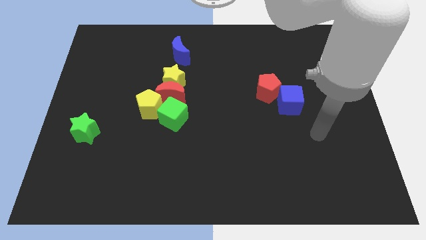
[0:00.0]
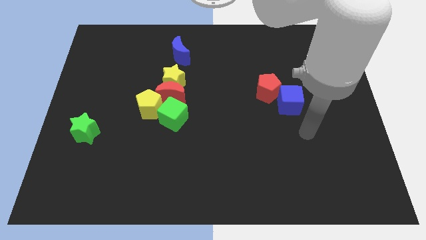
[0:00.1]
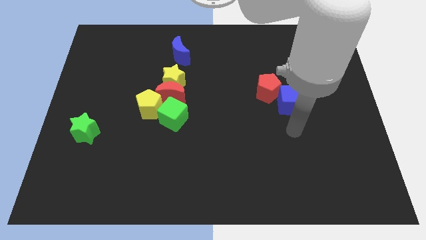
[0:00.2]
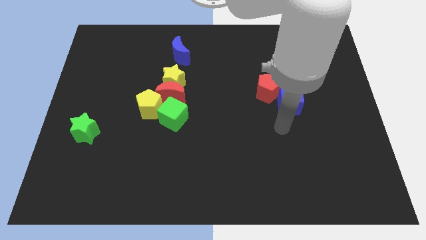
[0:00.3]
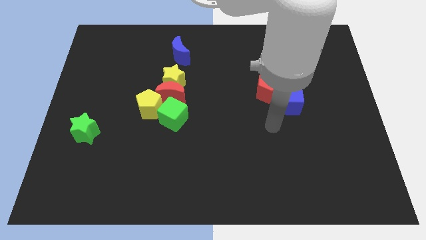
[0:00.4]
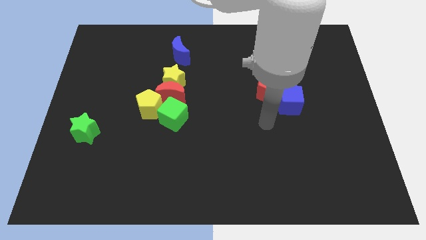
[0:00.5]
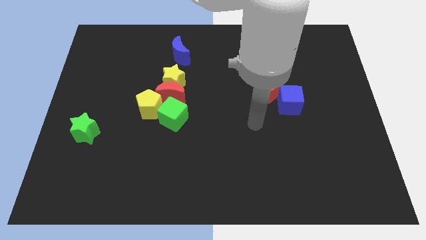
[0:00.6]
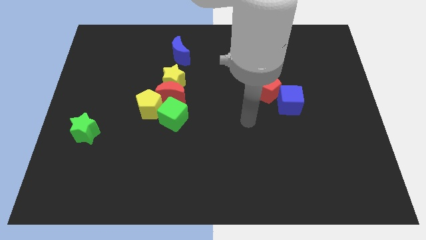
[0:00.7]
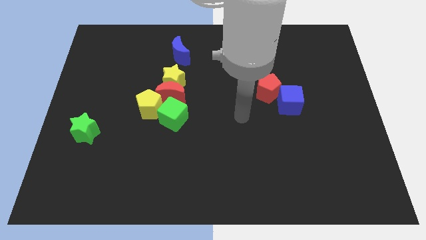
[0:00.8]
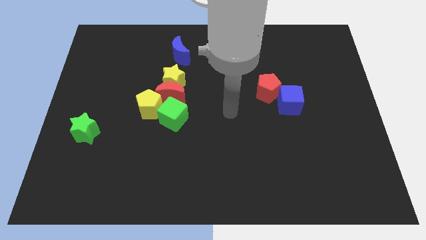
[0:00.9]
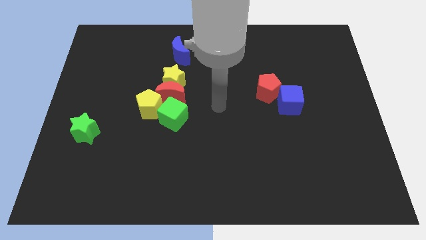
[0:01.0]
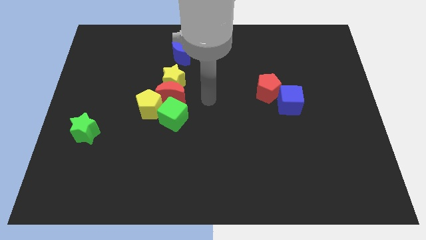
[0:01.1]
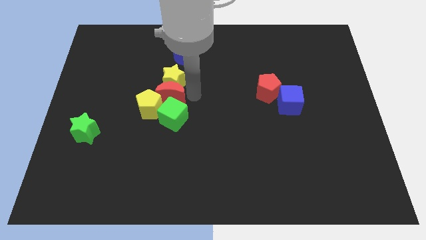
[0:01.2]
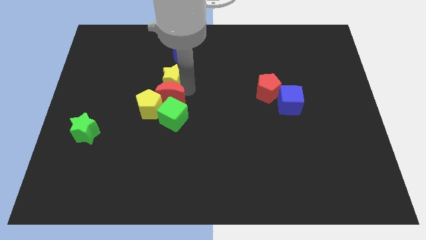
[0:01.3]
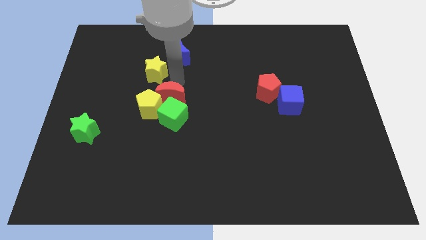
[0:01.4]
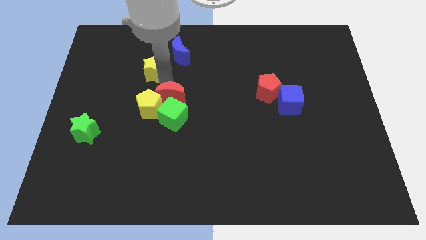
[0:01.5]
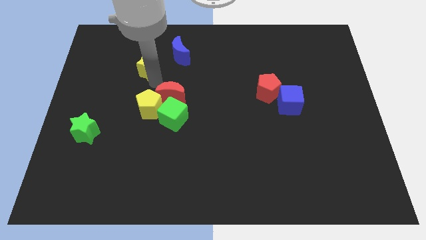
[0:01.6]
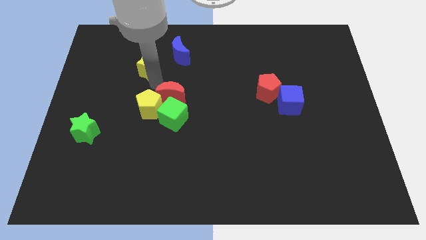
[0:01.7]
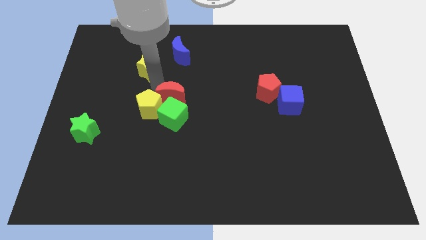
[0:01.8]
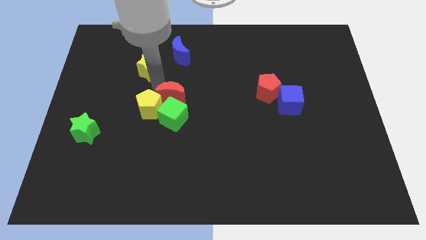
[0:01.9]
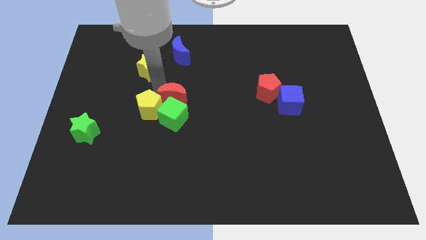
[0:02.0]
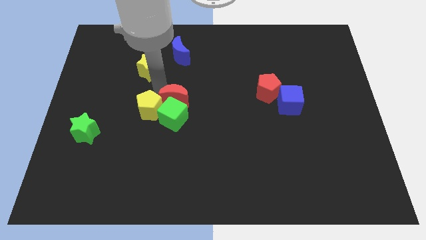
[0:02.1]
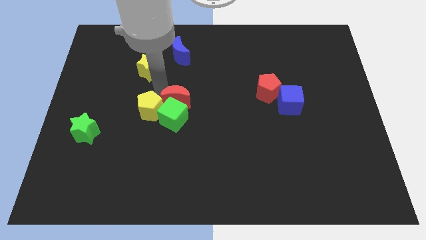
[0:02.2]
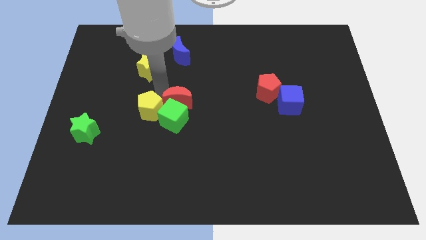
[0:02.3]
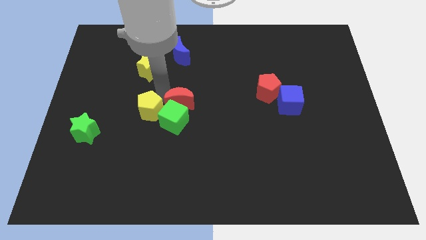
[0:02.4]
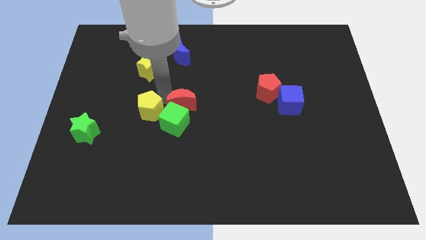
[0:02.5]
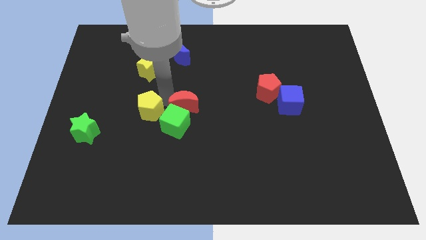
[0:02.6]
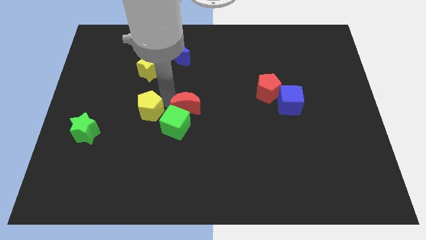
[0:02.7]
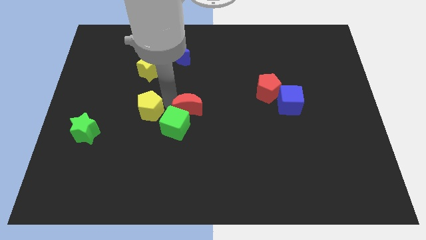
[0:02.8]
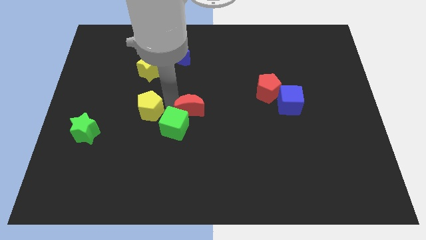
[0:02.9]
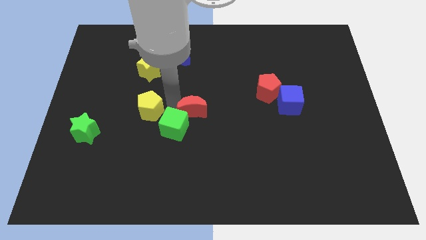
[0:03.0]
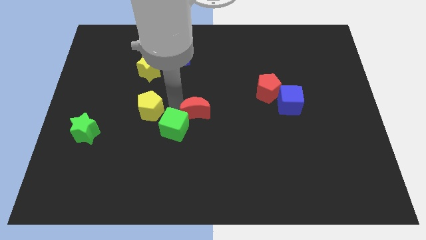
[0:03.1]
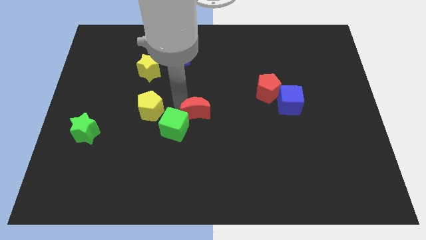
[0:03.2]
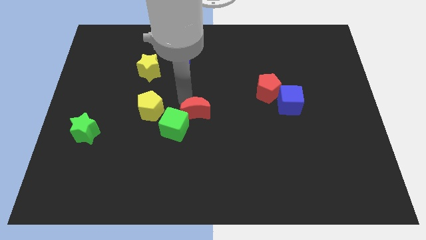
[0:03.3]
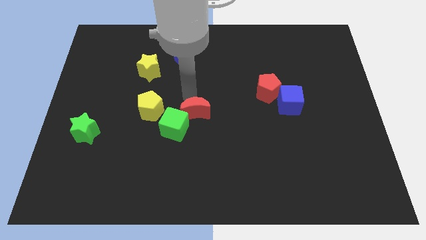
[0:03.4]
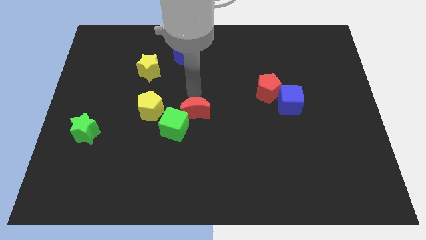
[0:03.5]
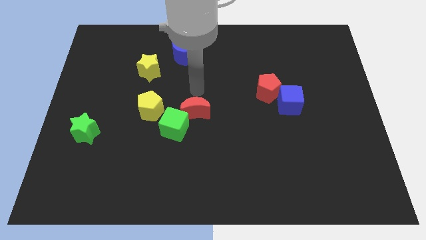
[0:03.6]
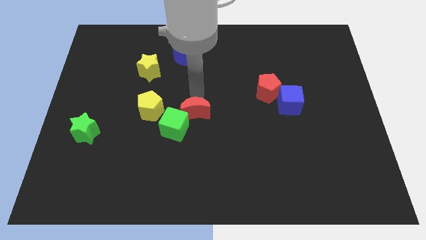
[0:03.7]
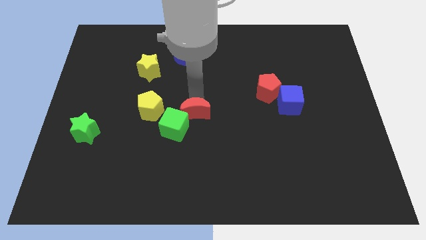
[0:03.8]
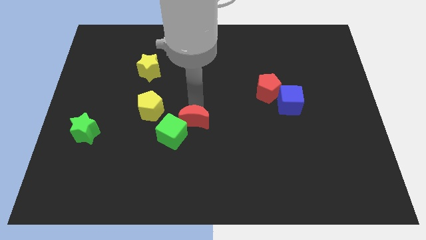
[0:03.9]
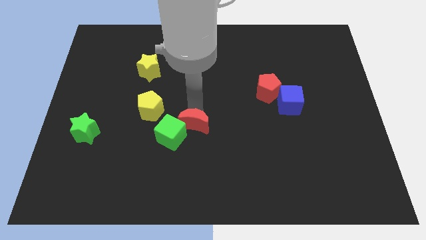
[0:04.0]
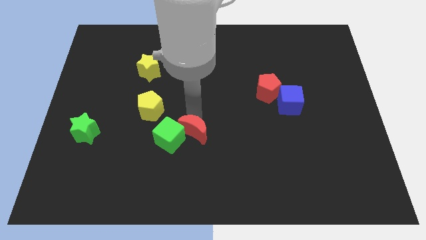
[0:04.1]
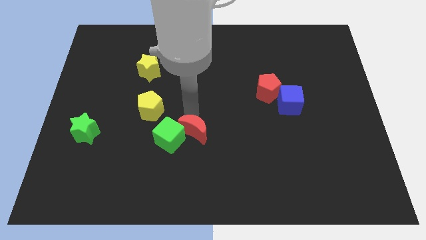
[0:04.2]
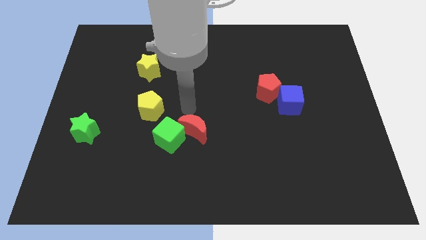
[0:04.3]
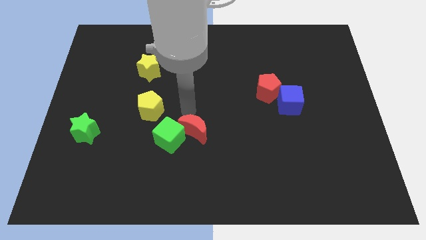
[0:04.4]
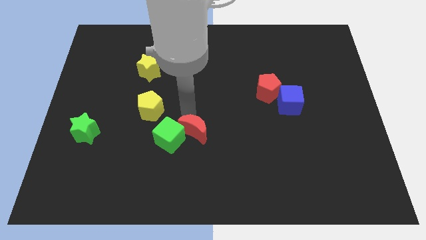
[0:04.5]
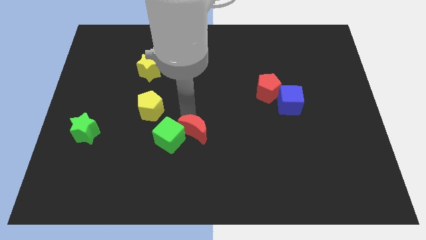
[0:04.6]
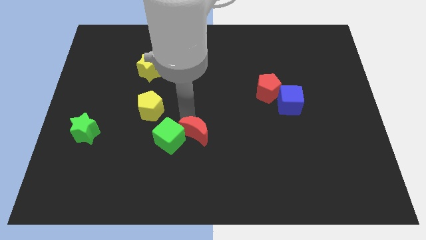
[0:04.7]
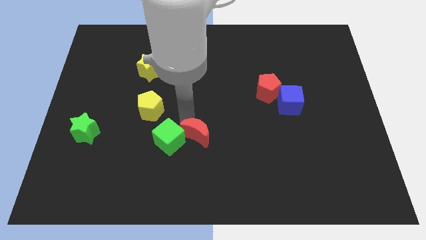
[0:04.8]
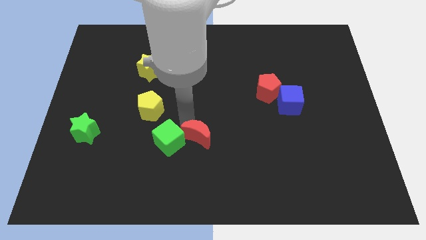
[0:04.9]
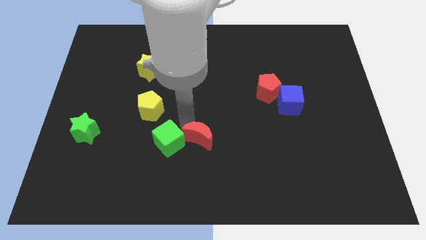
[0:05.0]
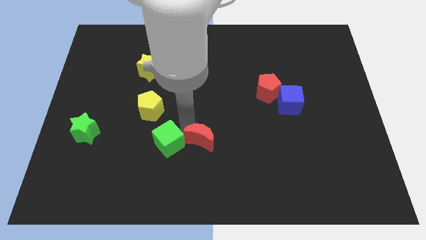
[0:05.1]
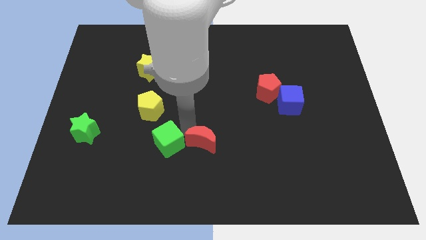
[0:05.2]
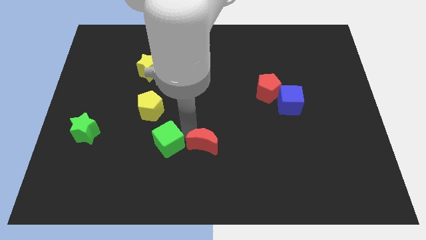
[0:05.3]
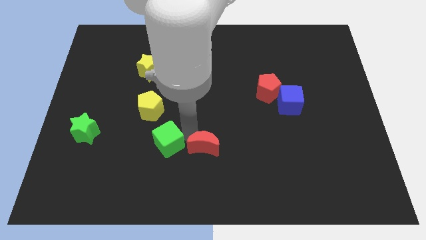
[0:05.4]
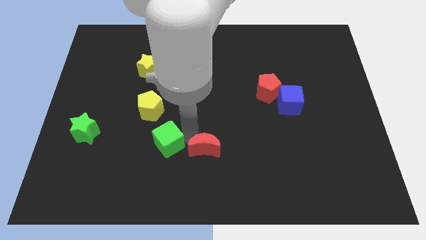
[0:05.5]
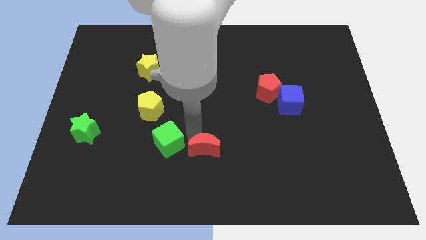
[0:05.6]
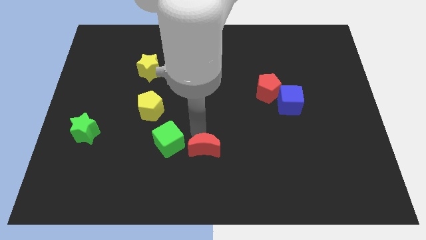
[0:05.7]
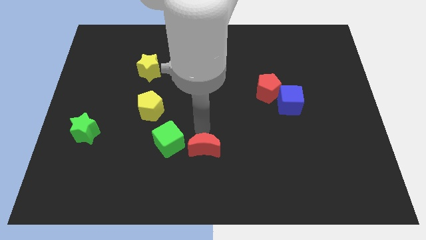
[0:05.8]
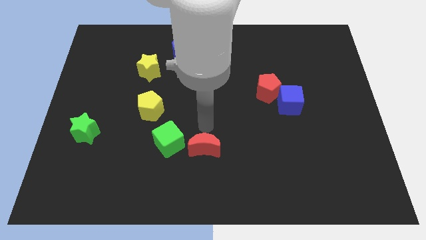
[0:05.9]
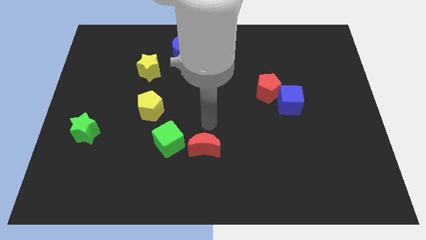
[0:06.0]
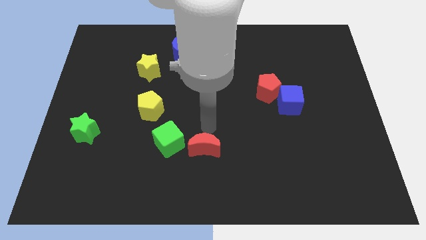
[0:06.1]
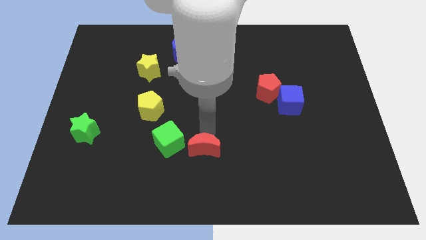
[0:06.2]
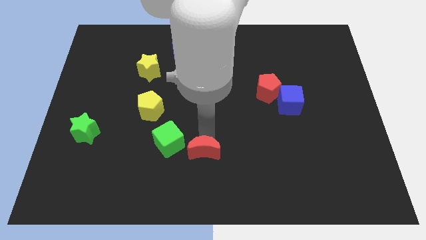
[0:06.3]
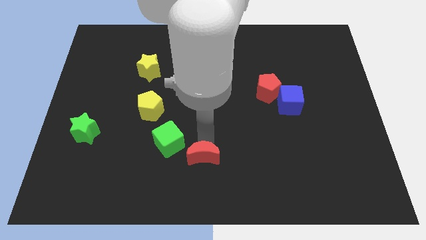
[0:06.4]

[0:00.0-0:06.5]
move the red moon to the bottom
